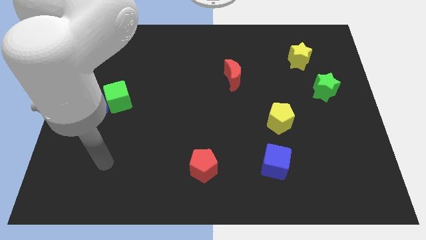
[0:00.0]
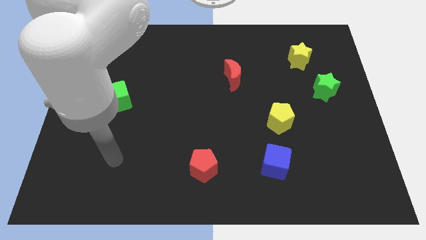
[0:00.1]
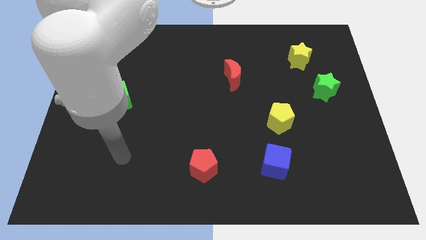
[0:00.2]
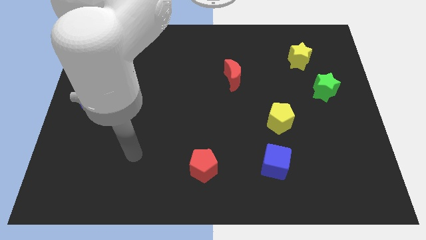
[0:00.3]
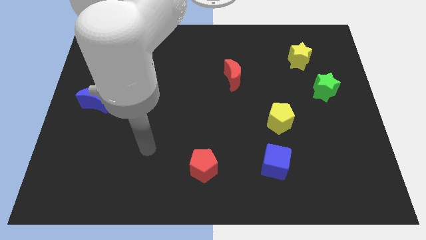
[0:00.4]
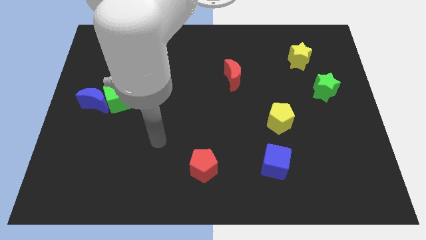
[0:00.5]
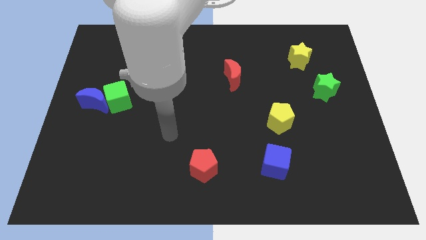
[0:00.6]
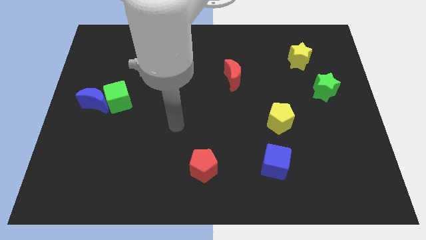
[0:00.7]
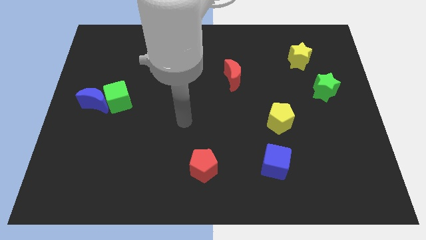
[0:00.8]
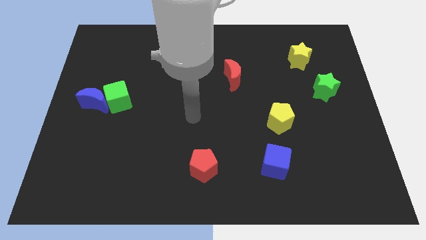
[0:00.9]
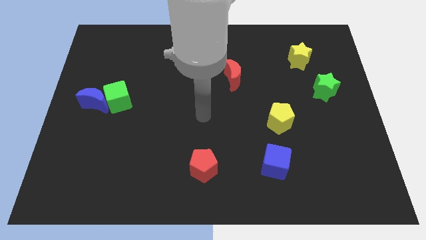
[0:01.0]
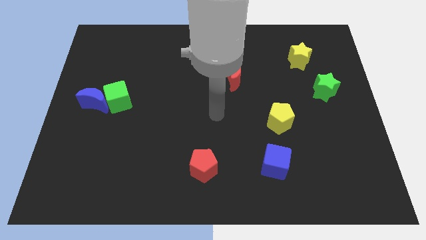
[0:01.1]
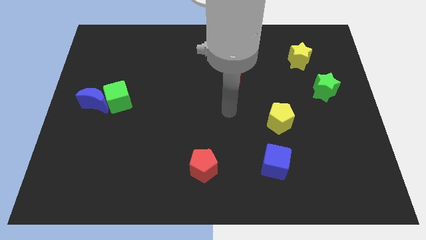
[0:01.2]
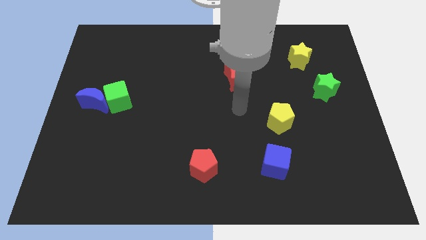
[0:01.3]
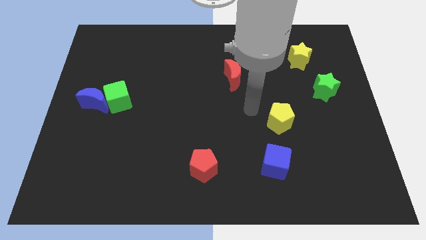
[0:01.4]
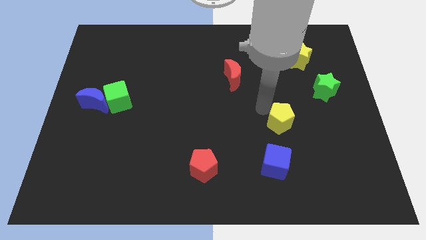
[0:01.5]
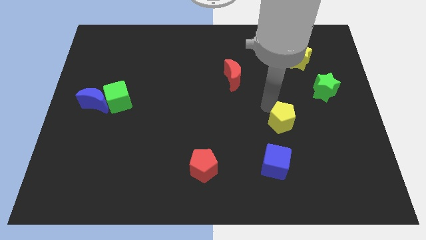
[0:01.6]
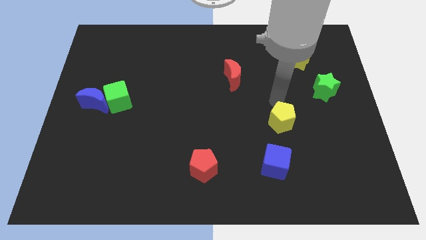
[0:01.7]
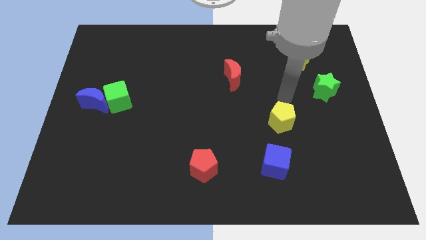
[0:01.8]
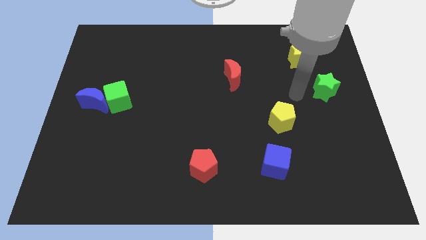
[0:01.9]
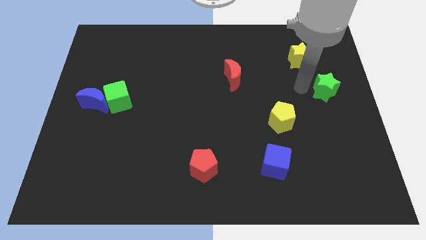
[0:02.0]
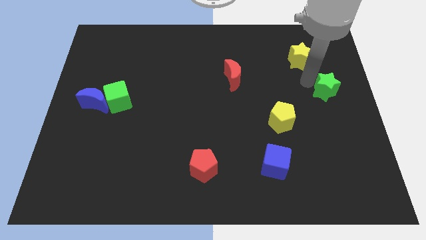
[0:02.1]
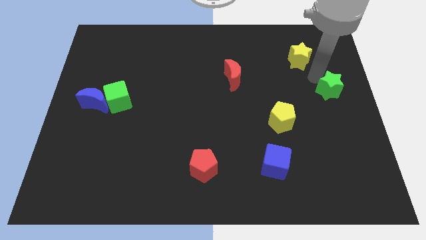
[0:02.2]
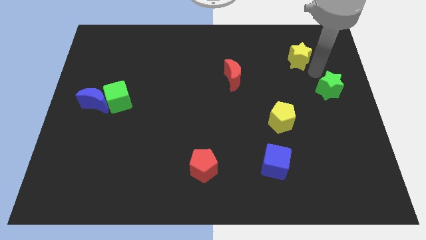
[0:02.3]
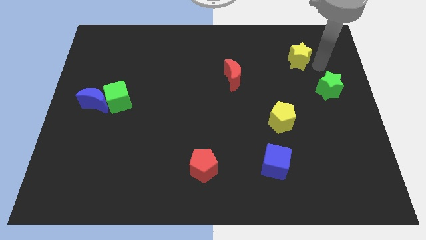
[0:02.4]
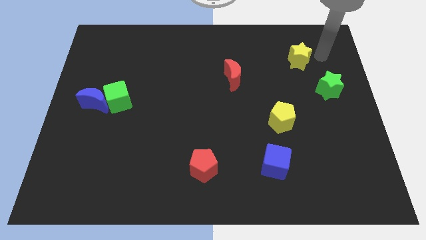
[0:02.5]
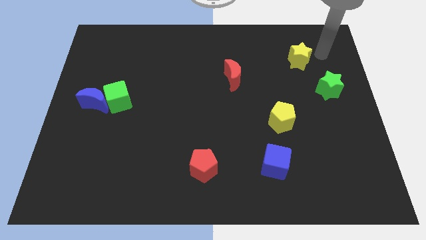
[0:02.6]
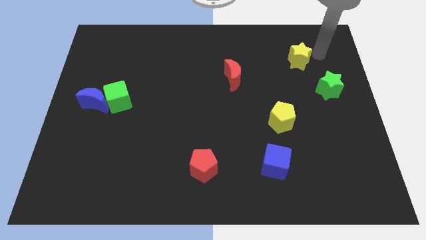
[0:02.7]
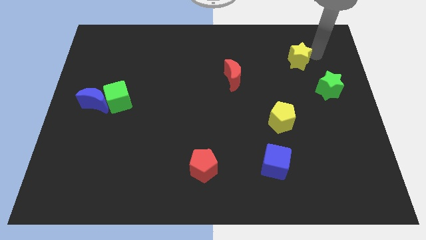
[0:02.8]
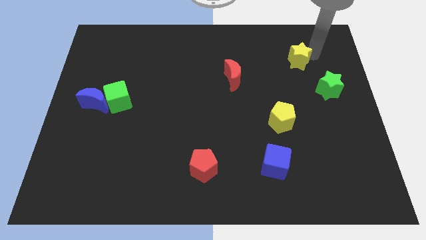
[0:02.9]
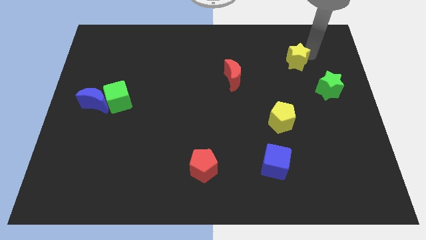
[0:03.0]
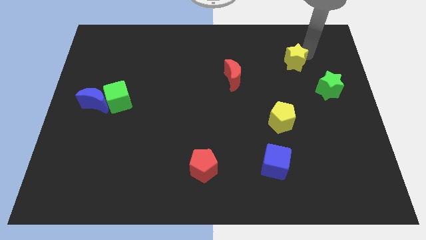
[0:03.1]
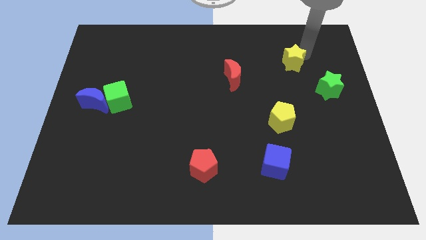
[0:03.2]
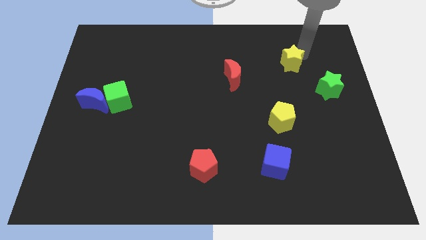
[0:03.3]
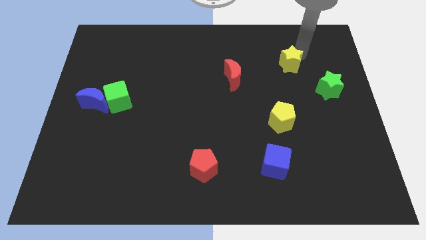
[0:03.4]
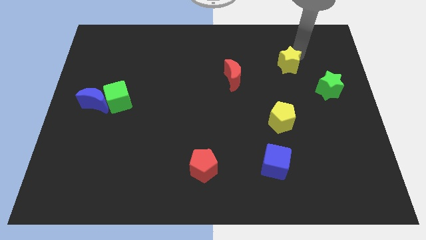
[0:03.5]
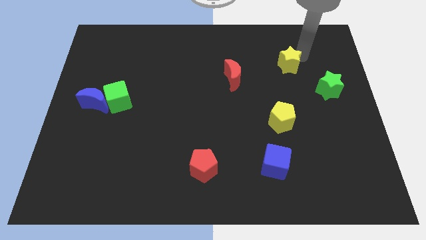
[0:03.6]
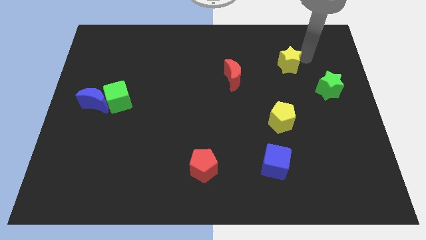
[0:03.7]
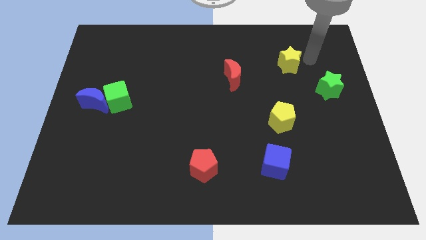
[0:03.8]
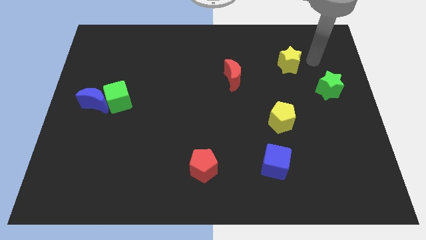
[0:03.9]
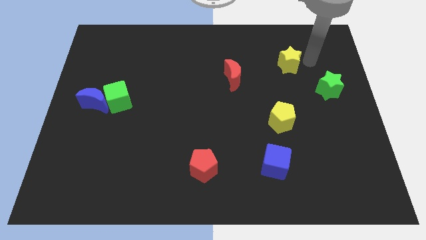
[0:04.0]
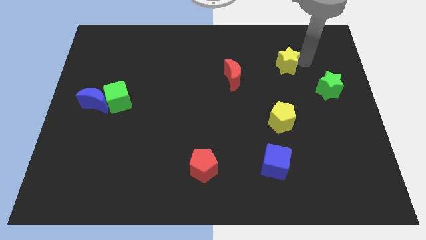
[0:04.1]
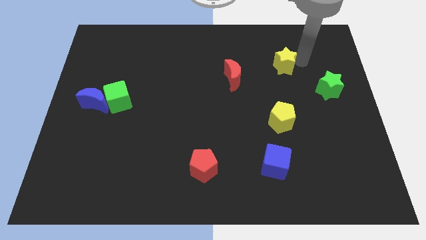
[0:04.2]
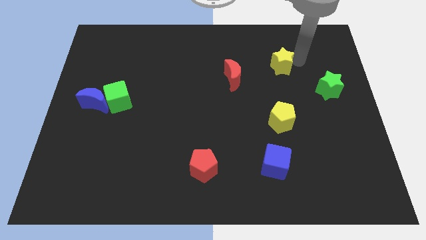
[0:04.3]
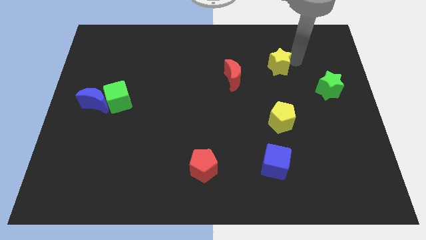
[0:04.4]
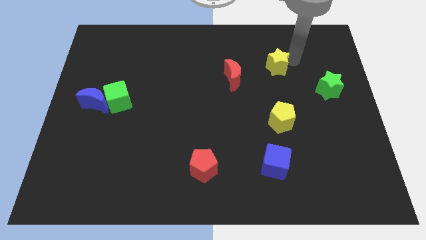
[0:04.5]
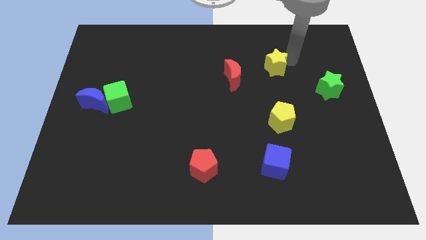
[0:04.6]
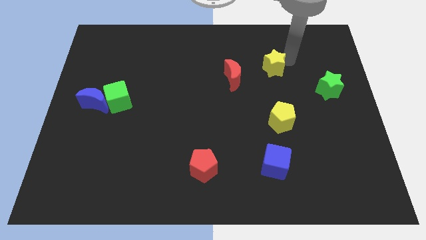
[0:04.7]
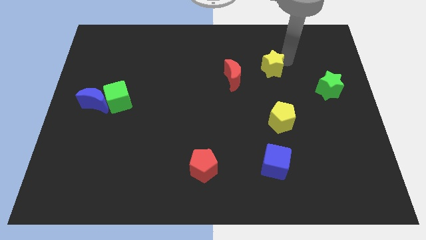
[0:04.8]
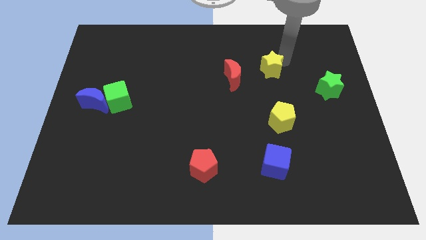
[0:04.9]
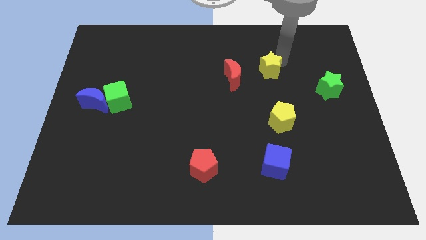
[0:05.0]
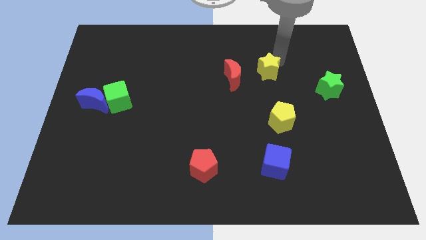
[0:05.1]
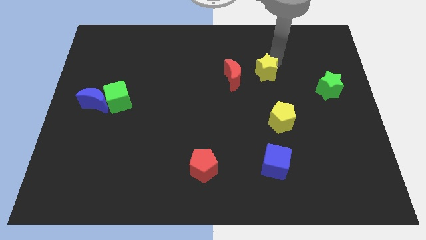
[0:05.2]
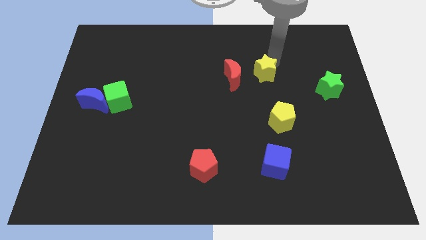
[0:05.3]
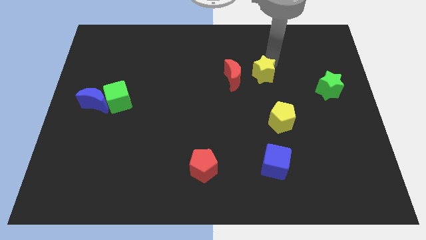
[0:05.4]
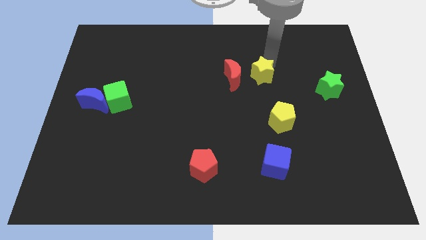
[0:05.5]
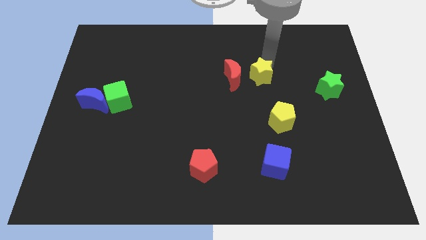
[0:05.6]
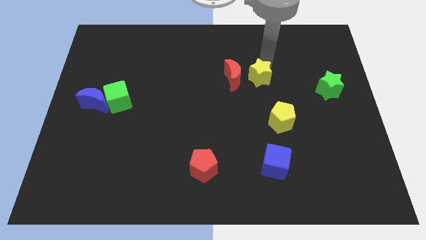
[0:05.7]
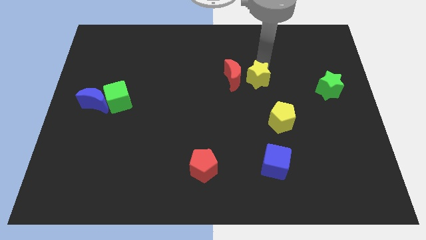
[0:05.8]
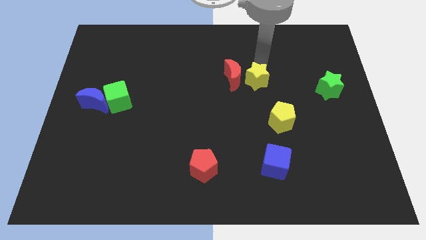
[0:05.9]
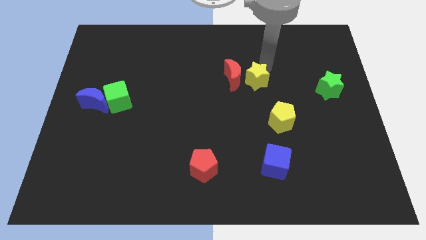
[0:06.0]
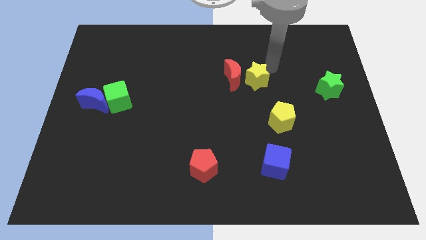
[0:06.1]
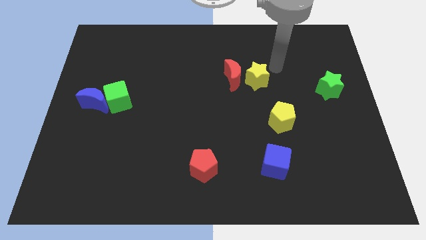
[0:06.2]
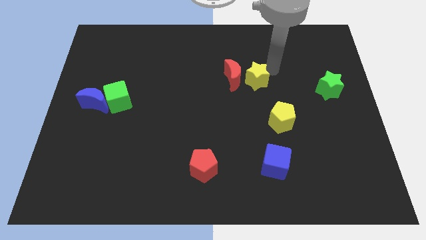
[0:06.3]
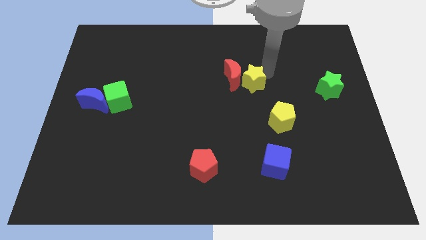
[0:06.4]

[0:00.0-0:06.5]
push the yellow star to the center of the board
